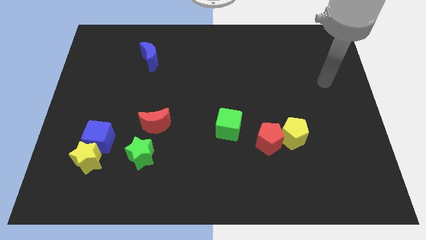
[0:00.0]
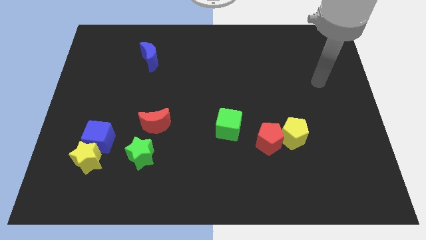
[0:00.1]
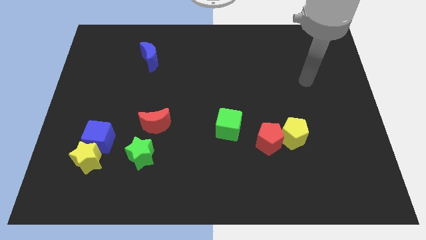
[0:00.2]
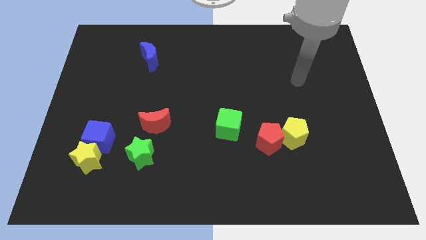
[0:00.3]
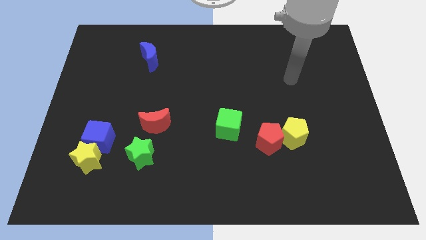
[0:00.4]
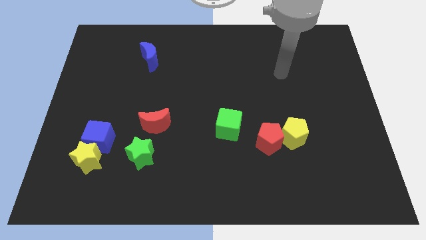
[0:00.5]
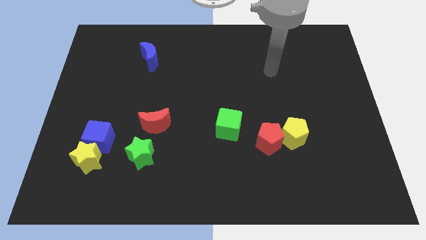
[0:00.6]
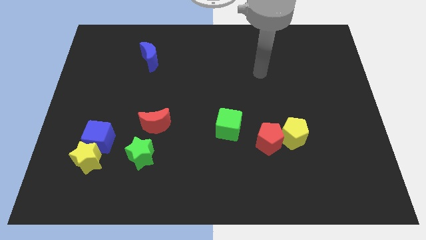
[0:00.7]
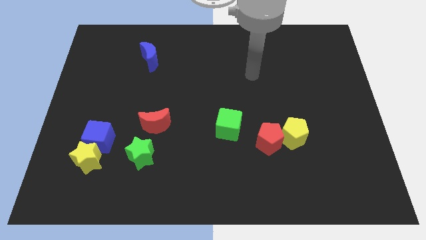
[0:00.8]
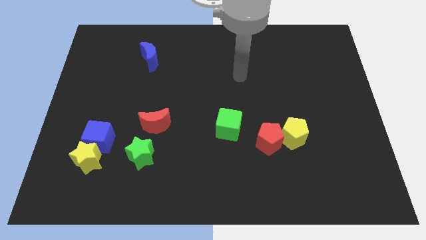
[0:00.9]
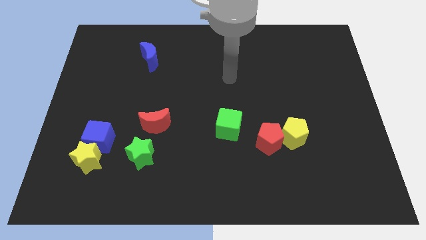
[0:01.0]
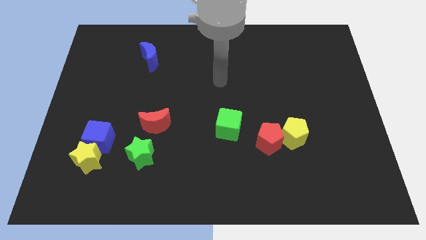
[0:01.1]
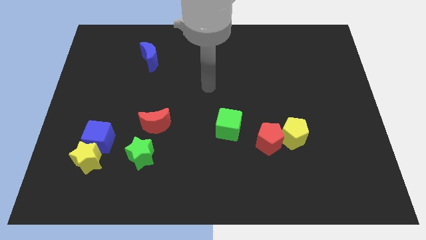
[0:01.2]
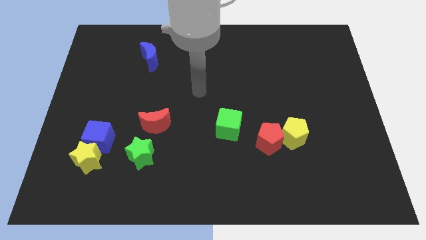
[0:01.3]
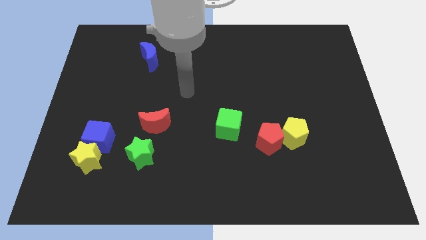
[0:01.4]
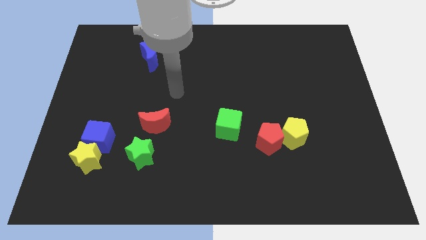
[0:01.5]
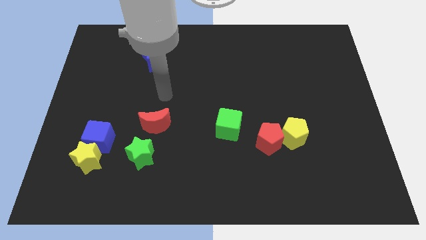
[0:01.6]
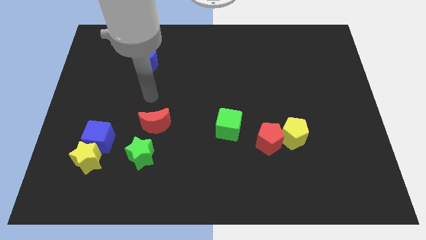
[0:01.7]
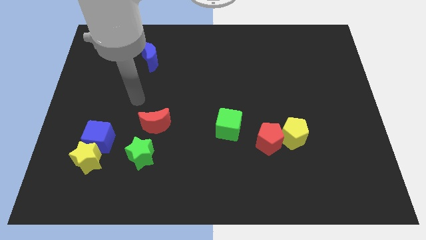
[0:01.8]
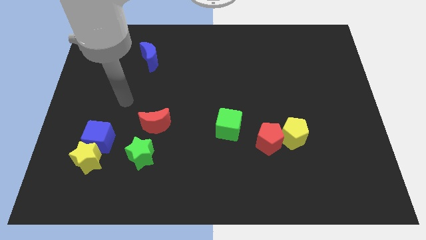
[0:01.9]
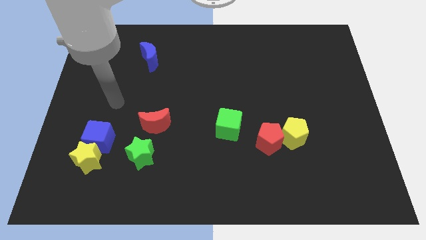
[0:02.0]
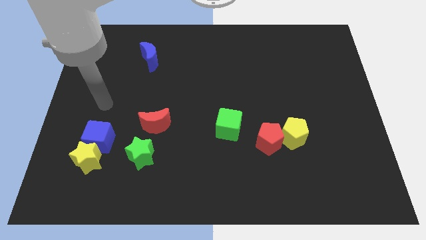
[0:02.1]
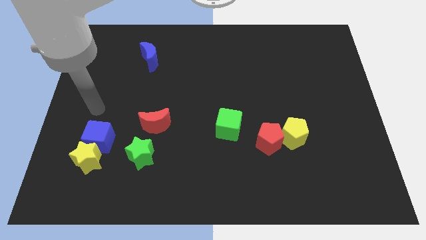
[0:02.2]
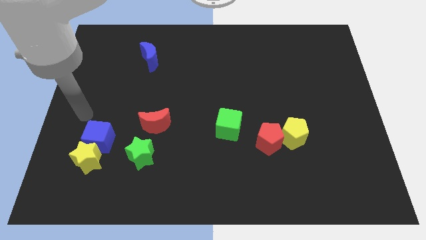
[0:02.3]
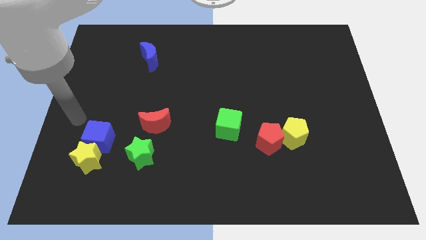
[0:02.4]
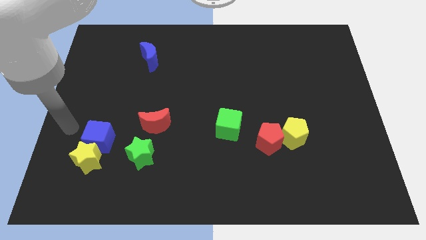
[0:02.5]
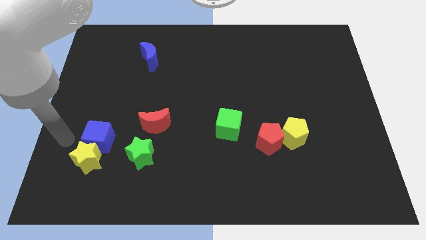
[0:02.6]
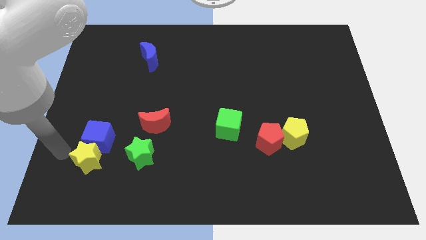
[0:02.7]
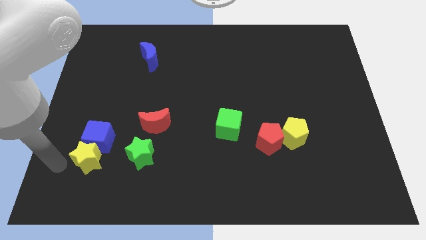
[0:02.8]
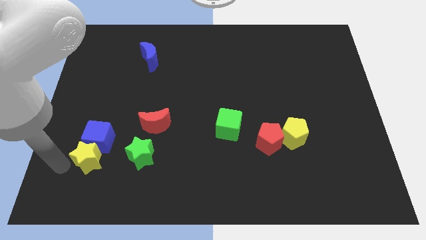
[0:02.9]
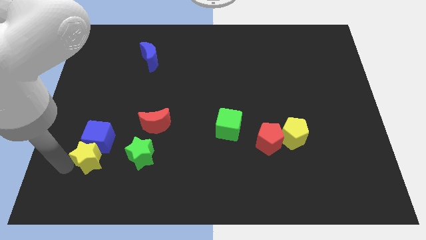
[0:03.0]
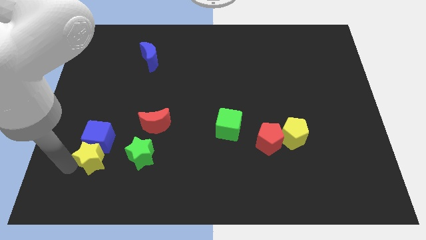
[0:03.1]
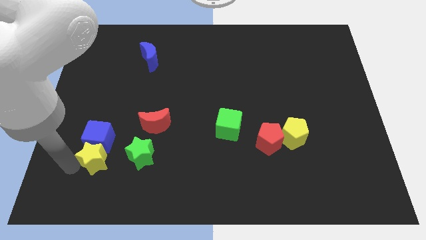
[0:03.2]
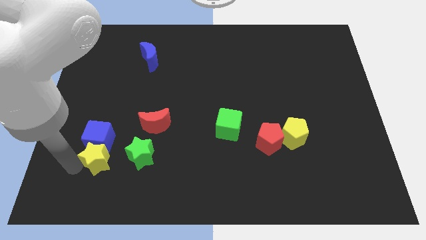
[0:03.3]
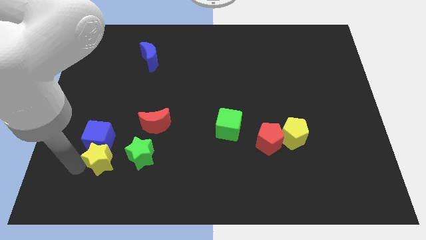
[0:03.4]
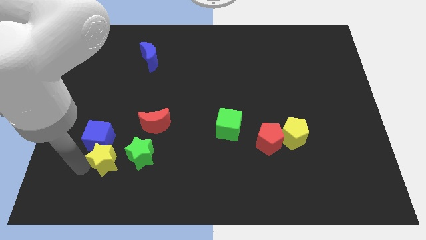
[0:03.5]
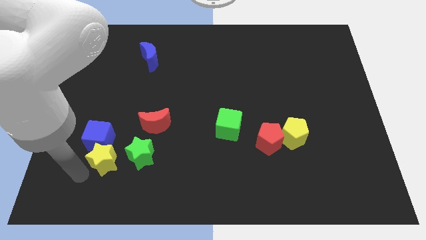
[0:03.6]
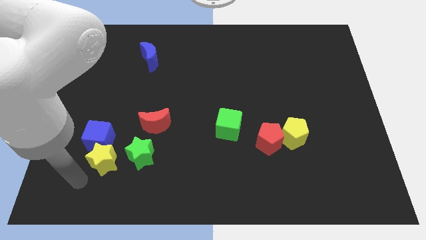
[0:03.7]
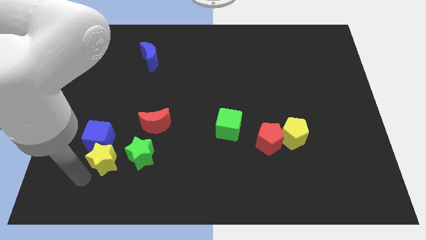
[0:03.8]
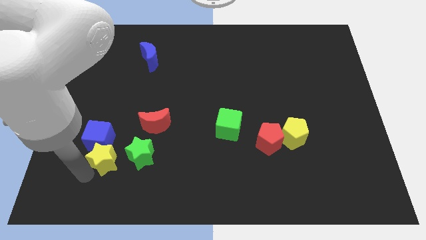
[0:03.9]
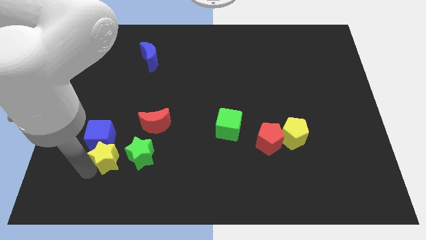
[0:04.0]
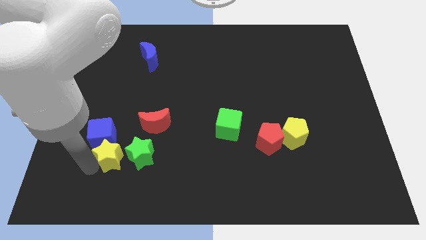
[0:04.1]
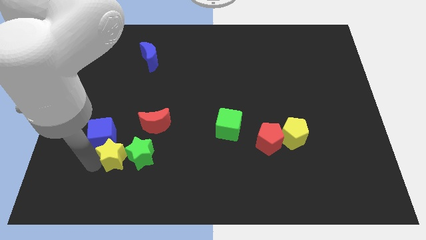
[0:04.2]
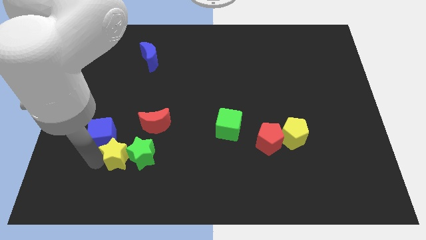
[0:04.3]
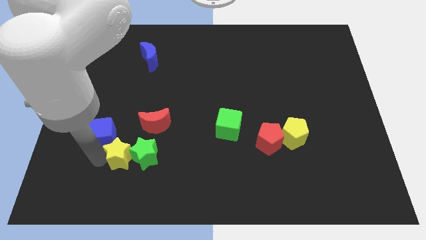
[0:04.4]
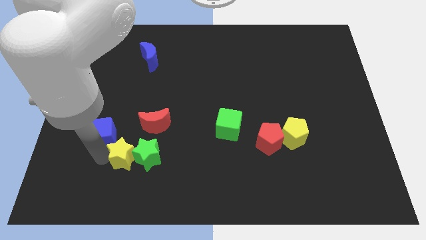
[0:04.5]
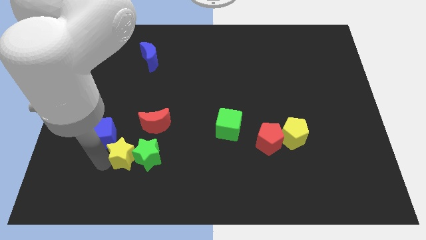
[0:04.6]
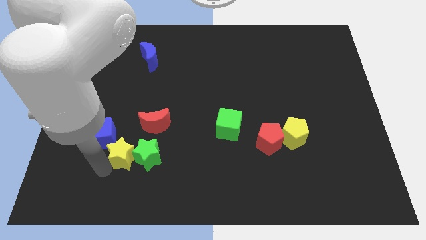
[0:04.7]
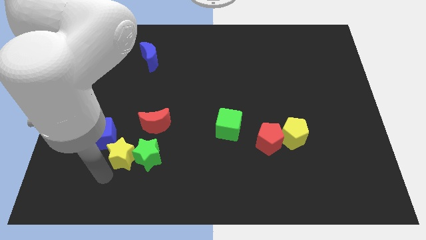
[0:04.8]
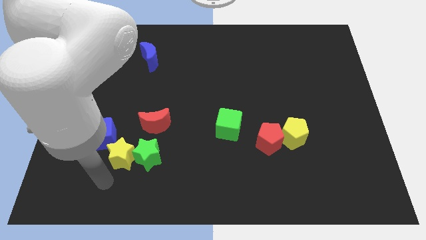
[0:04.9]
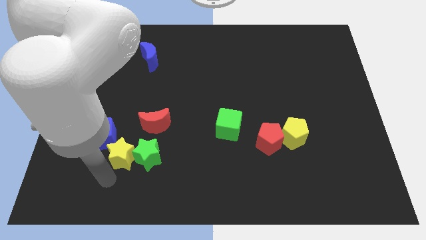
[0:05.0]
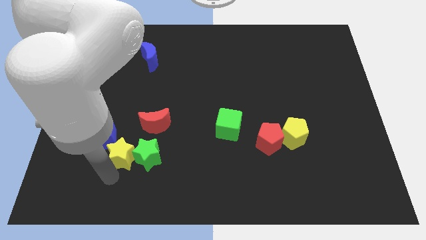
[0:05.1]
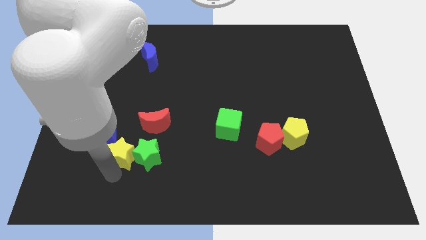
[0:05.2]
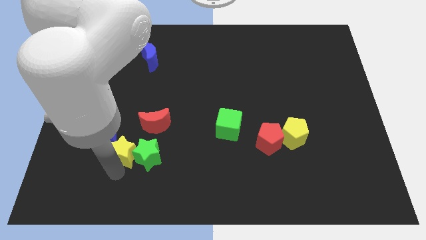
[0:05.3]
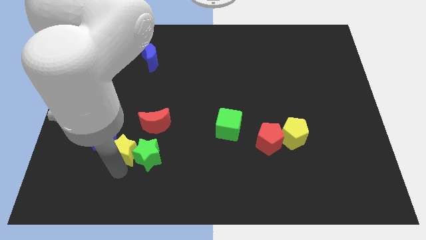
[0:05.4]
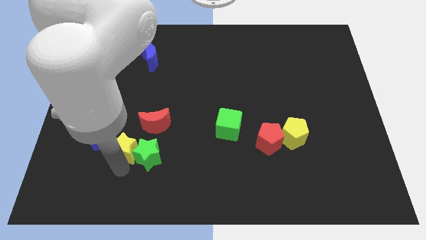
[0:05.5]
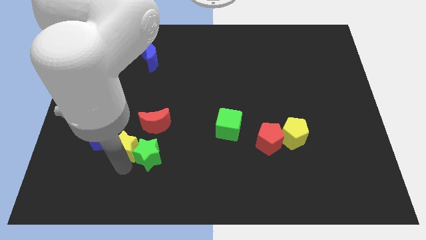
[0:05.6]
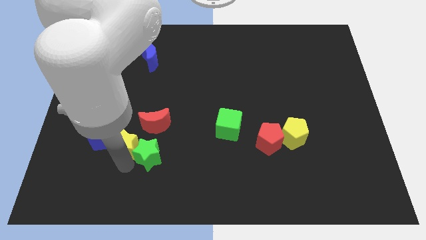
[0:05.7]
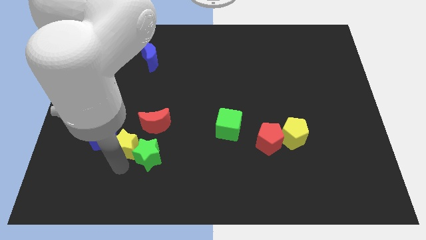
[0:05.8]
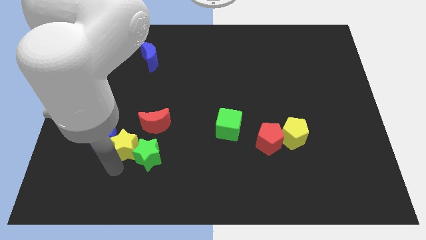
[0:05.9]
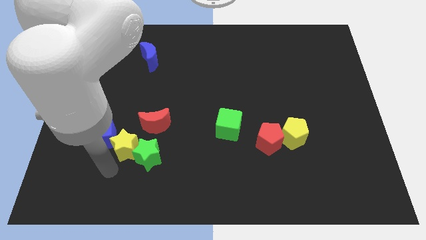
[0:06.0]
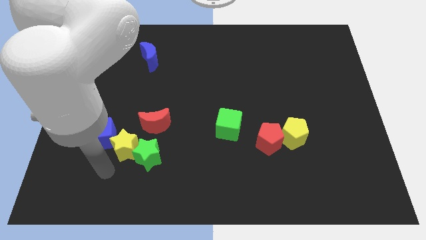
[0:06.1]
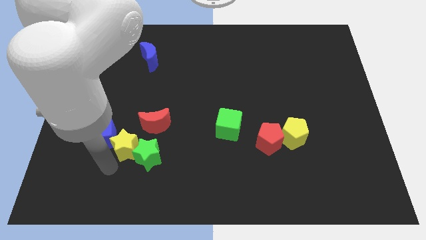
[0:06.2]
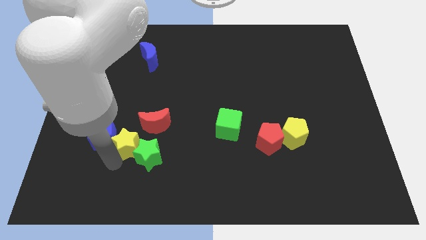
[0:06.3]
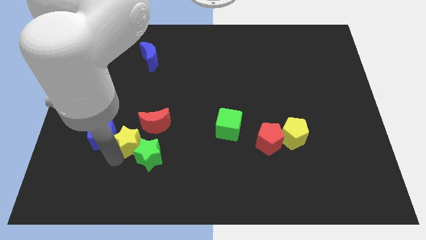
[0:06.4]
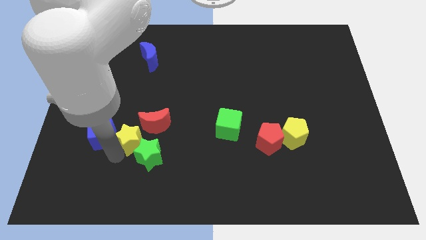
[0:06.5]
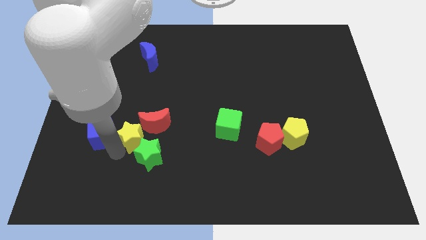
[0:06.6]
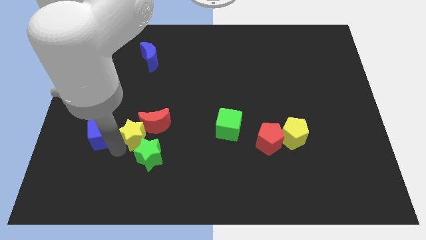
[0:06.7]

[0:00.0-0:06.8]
slide the yellow star towards the red moon

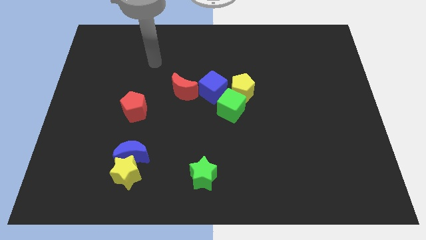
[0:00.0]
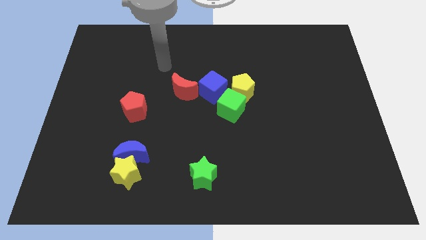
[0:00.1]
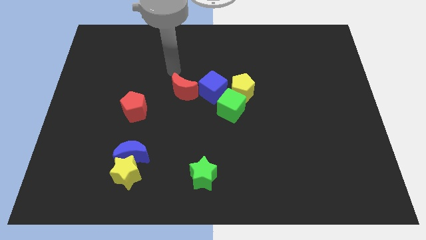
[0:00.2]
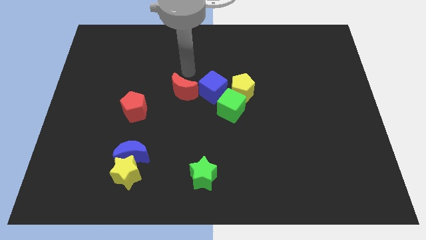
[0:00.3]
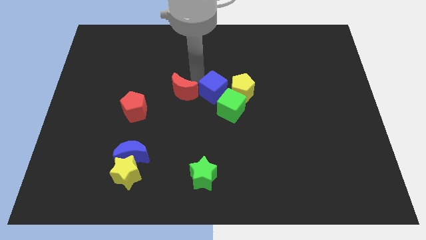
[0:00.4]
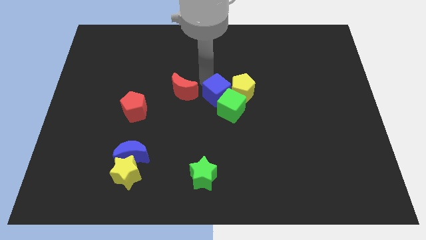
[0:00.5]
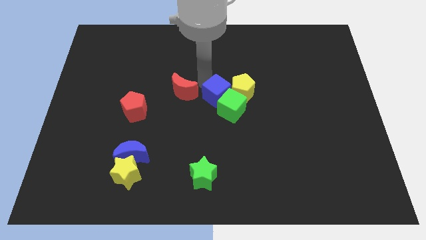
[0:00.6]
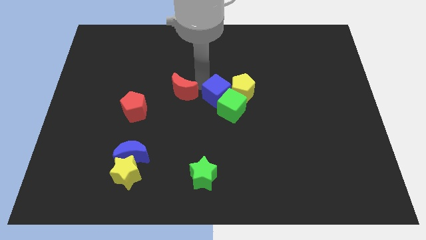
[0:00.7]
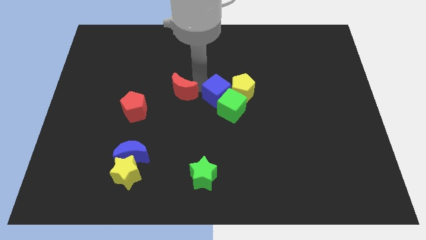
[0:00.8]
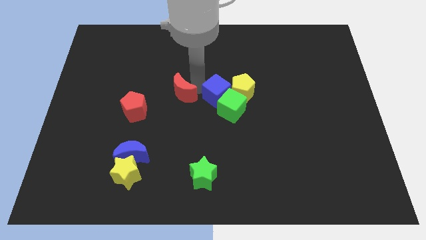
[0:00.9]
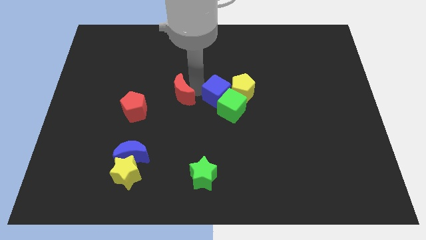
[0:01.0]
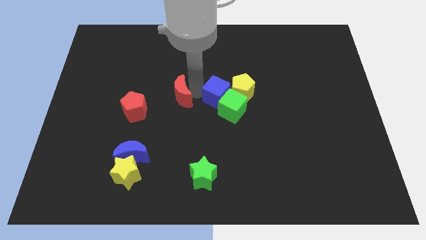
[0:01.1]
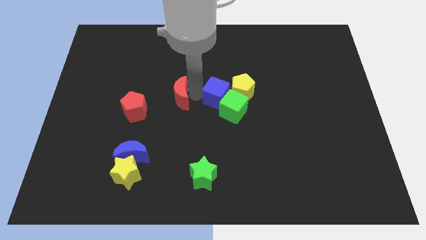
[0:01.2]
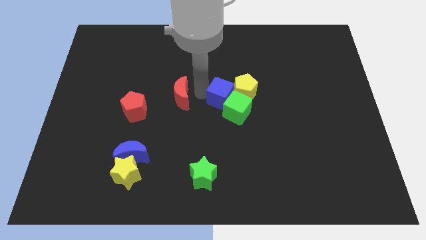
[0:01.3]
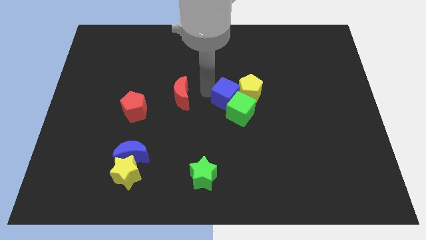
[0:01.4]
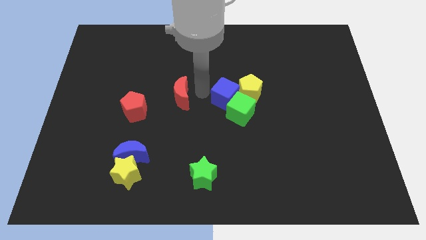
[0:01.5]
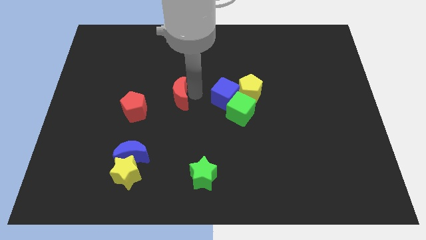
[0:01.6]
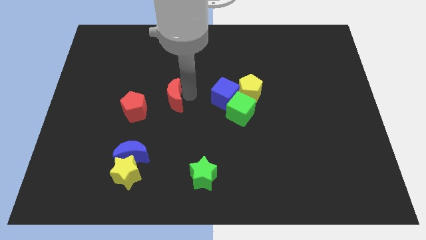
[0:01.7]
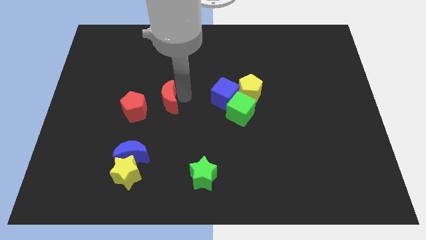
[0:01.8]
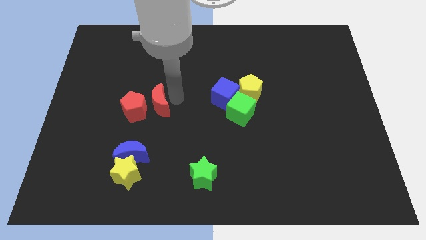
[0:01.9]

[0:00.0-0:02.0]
push the red moon to the red pentagon
